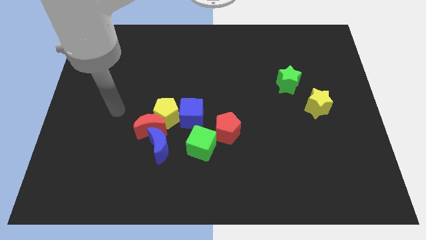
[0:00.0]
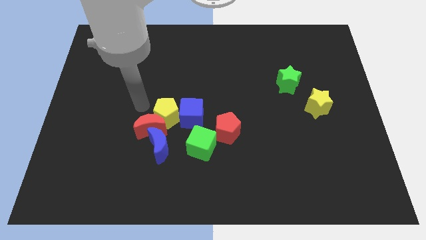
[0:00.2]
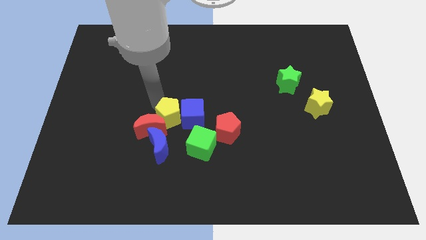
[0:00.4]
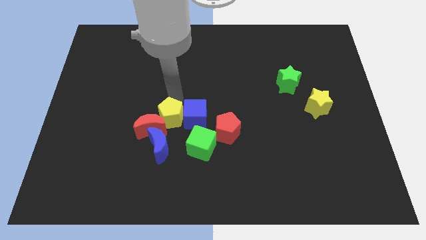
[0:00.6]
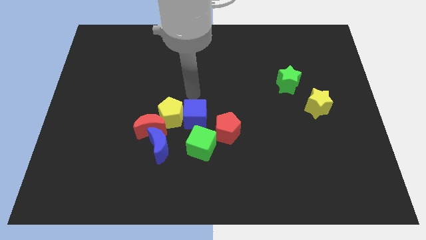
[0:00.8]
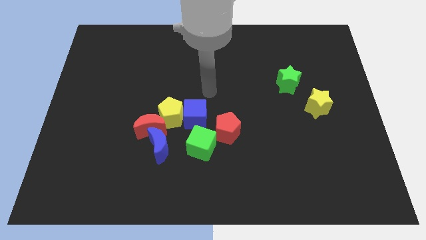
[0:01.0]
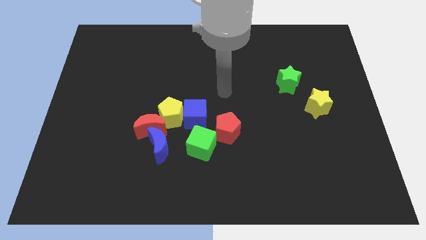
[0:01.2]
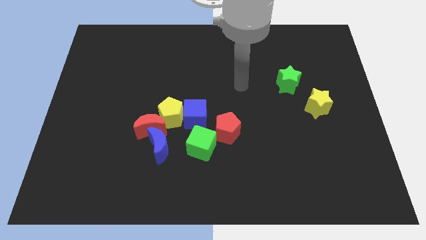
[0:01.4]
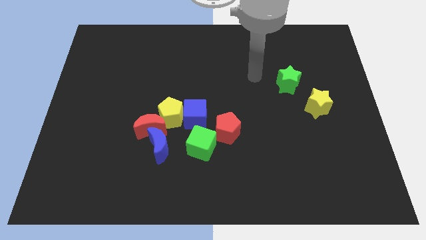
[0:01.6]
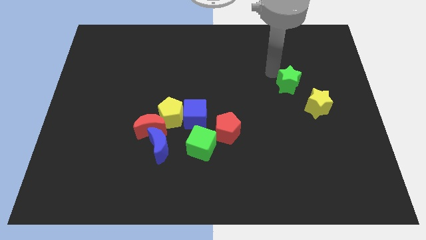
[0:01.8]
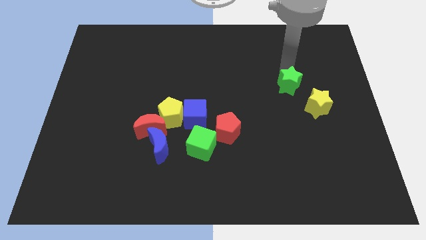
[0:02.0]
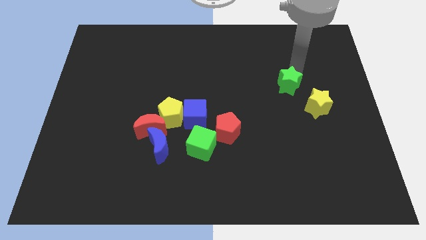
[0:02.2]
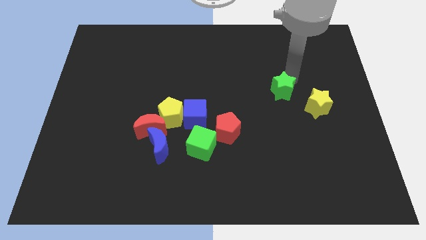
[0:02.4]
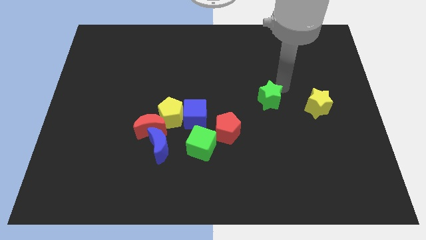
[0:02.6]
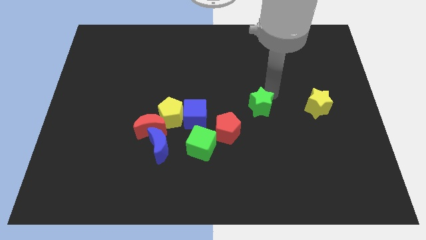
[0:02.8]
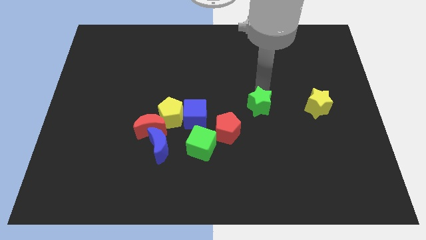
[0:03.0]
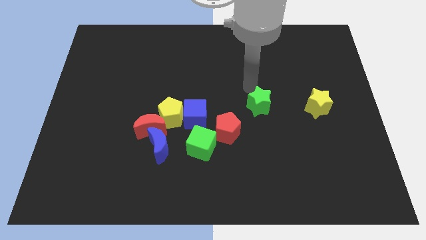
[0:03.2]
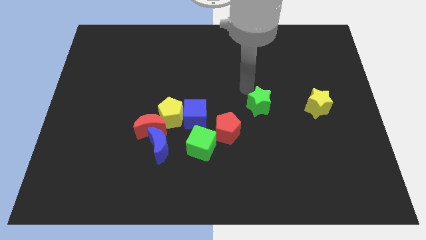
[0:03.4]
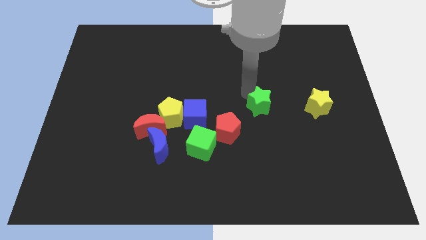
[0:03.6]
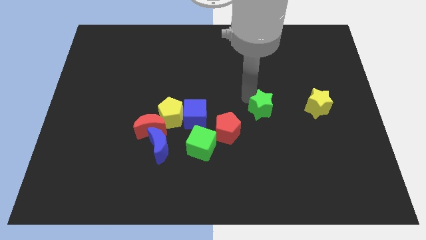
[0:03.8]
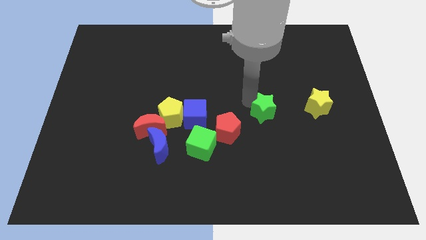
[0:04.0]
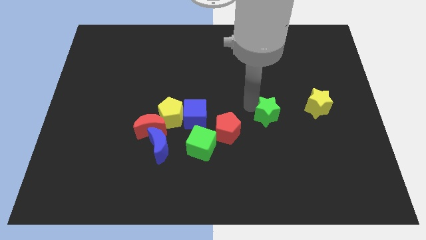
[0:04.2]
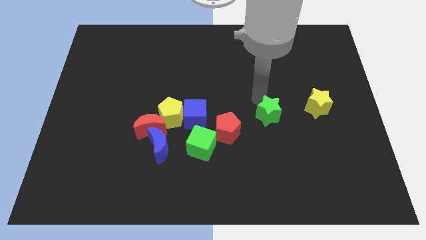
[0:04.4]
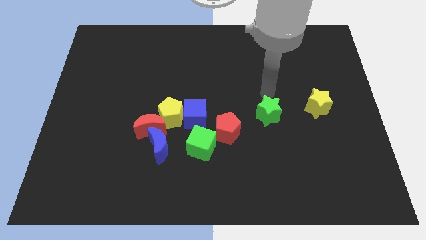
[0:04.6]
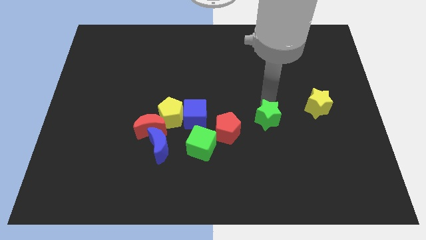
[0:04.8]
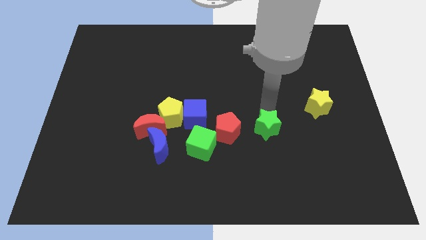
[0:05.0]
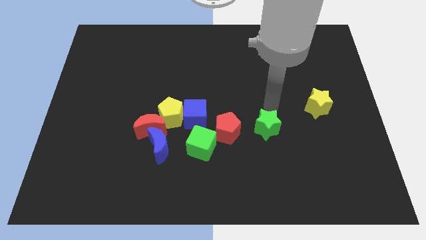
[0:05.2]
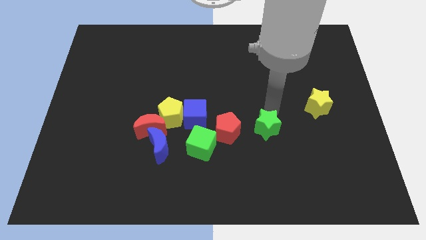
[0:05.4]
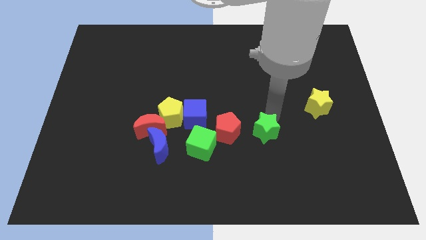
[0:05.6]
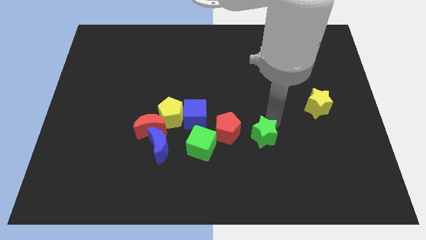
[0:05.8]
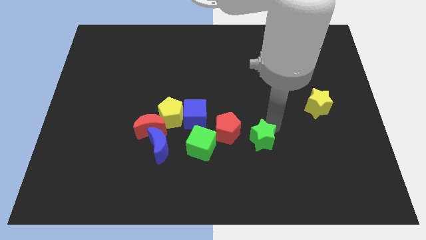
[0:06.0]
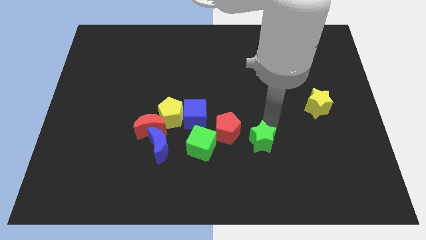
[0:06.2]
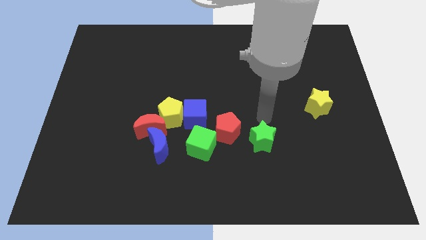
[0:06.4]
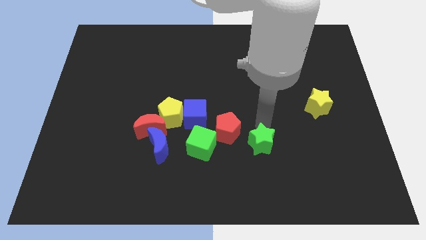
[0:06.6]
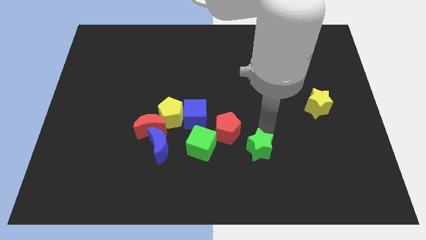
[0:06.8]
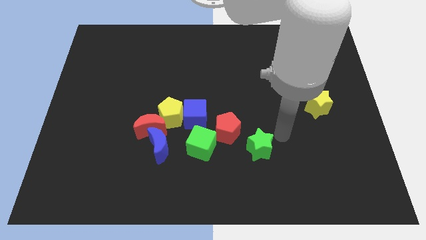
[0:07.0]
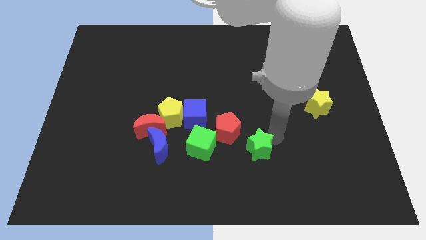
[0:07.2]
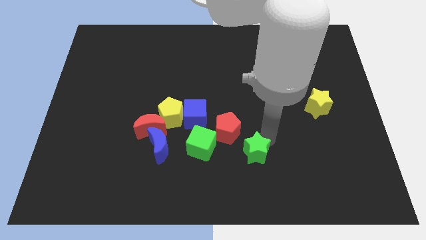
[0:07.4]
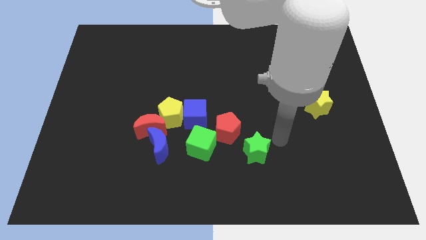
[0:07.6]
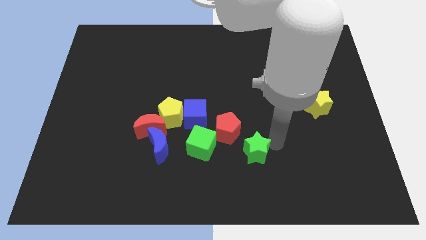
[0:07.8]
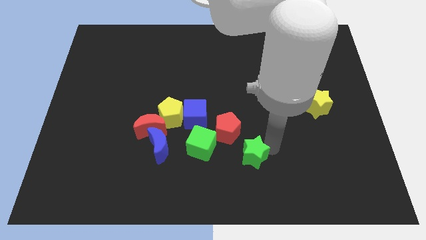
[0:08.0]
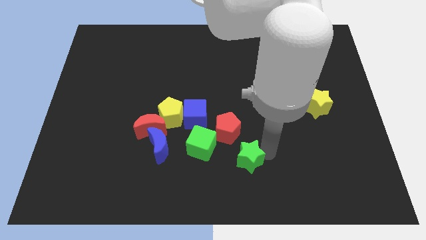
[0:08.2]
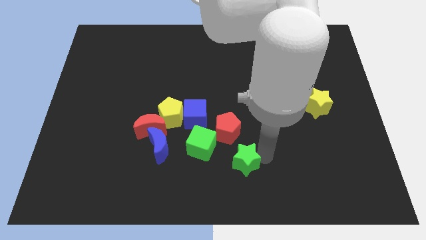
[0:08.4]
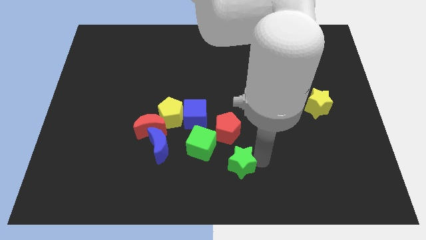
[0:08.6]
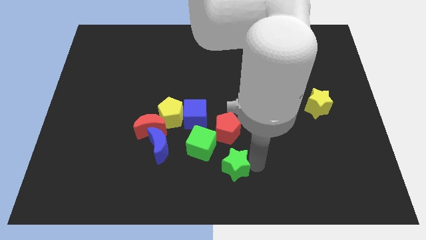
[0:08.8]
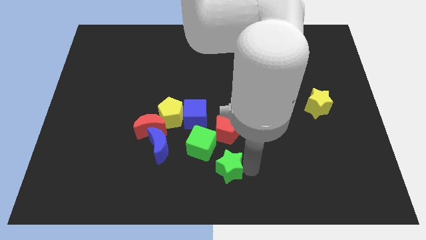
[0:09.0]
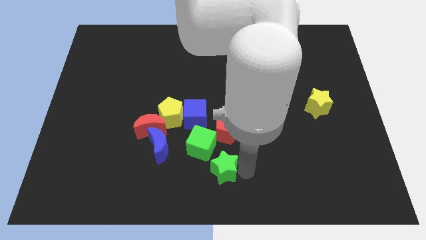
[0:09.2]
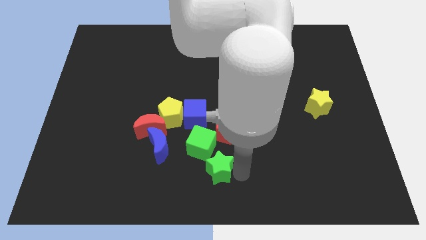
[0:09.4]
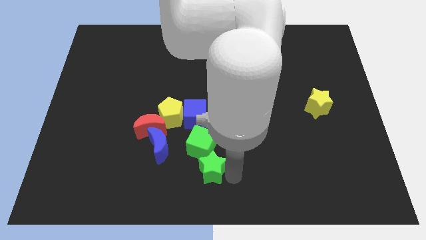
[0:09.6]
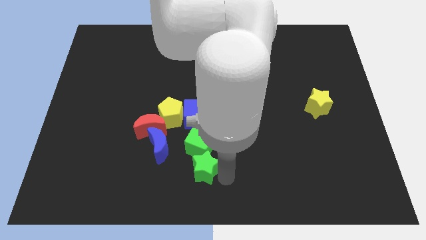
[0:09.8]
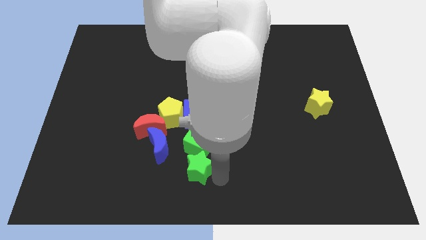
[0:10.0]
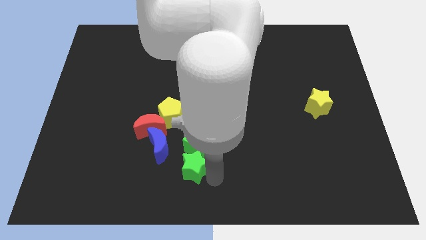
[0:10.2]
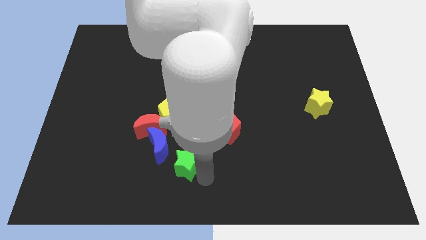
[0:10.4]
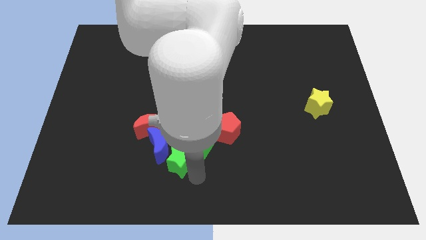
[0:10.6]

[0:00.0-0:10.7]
move the green star next to the blue moon

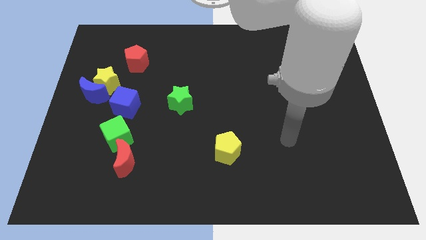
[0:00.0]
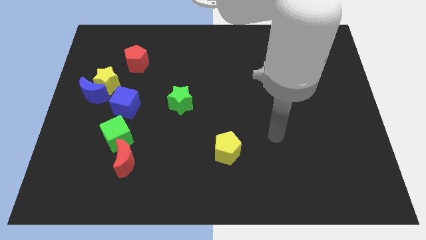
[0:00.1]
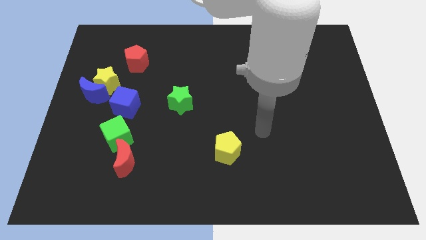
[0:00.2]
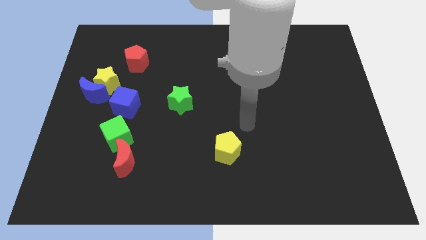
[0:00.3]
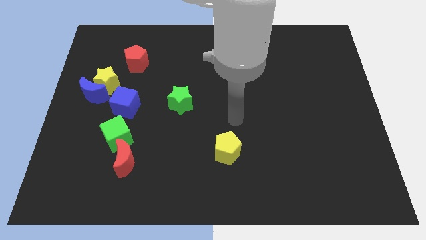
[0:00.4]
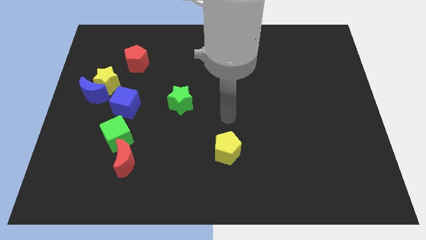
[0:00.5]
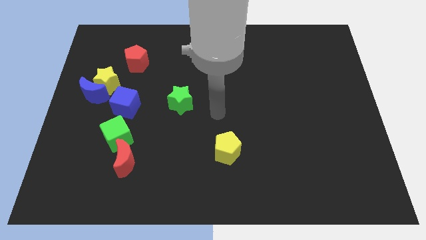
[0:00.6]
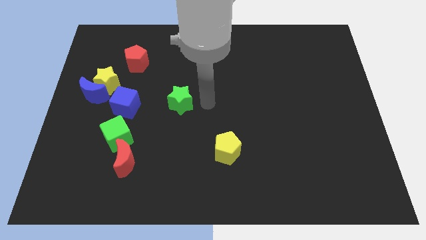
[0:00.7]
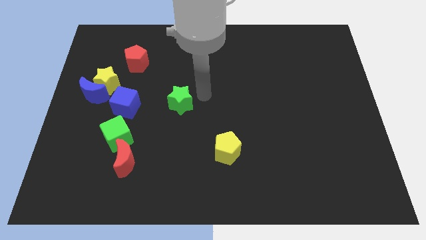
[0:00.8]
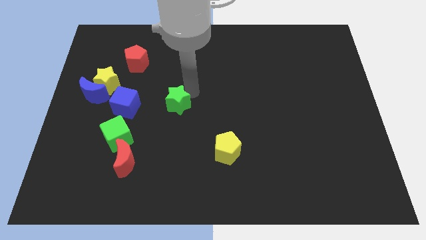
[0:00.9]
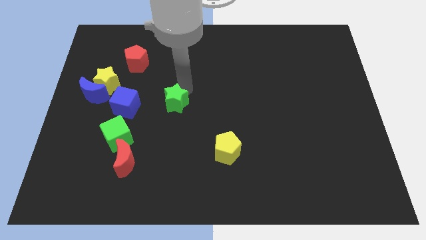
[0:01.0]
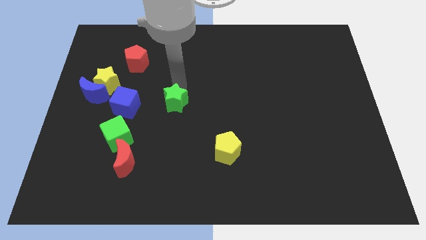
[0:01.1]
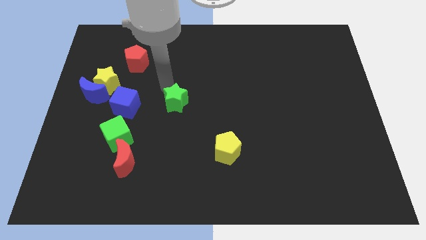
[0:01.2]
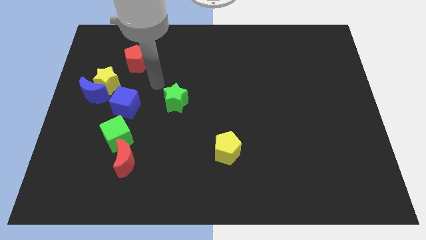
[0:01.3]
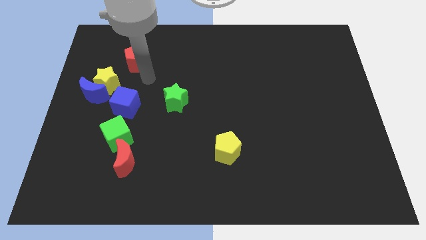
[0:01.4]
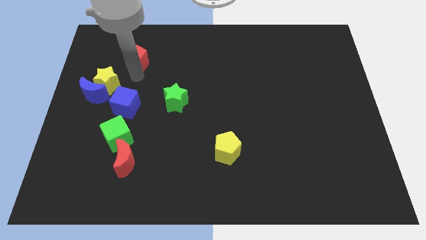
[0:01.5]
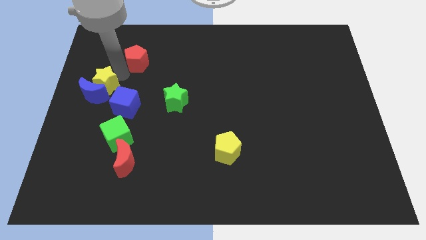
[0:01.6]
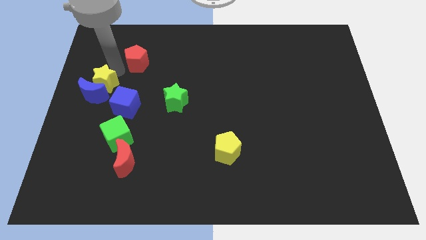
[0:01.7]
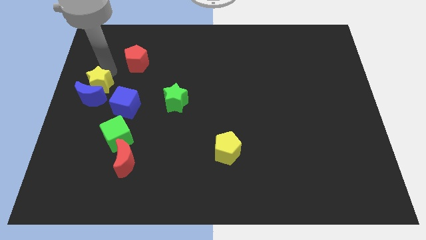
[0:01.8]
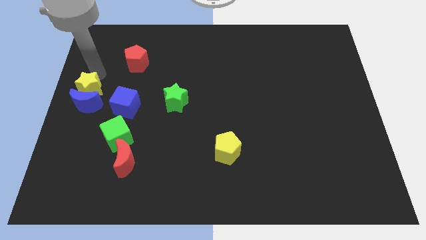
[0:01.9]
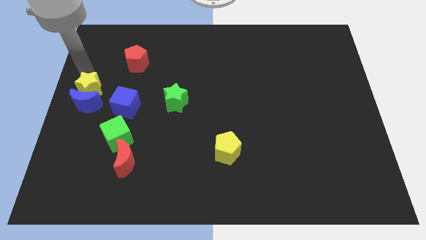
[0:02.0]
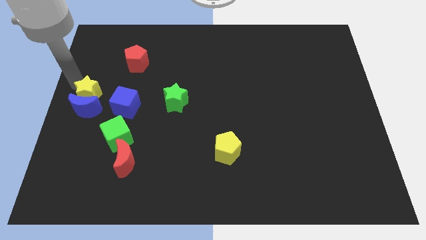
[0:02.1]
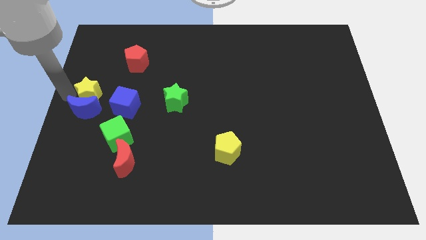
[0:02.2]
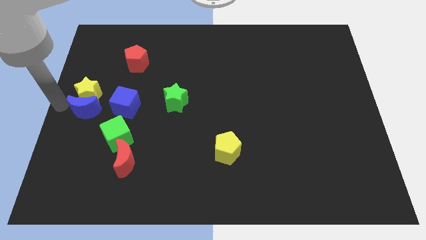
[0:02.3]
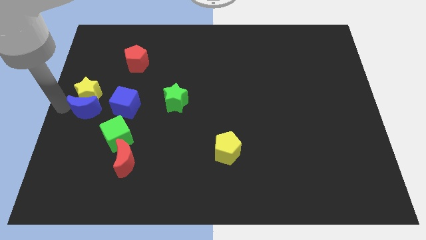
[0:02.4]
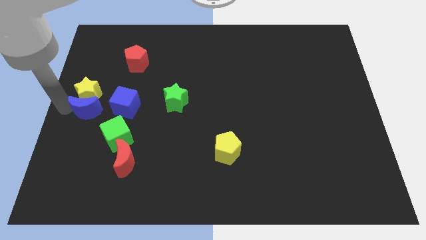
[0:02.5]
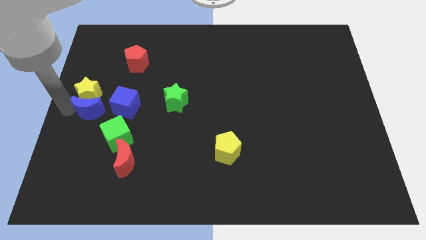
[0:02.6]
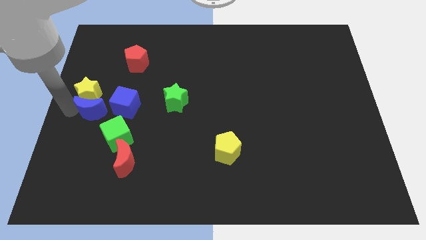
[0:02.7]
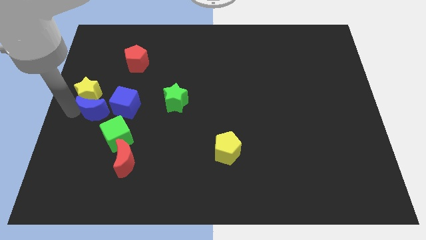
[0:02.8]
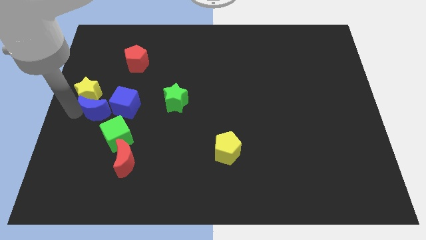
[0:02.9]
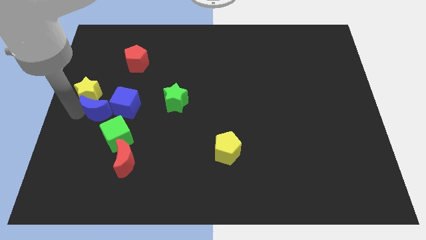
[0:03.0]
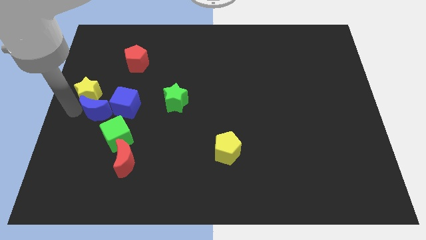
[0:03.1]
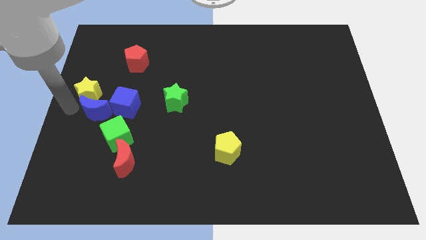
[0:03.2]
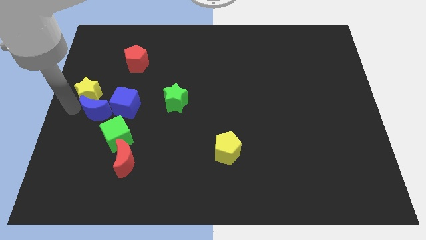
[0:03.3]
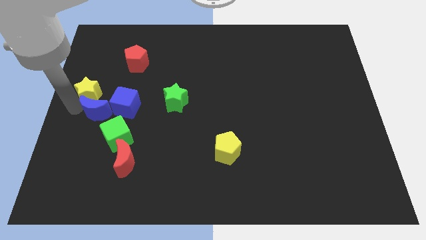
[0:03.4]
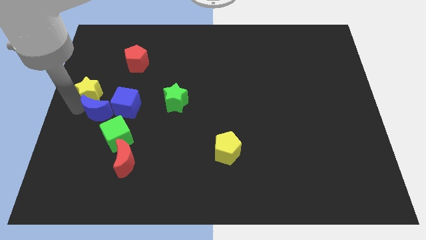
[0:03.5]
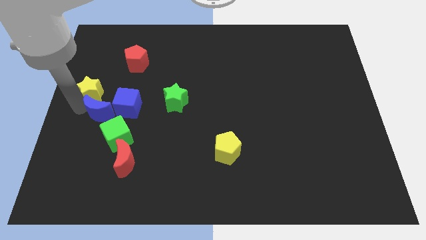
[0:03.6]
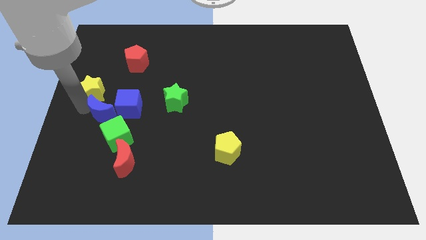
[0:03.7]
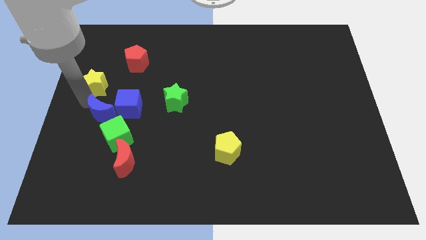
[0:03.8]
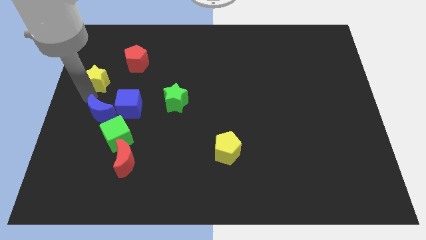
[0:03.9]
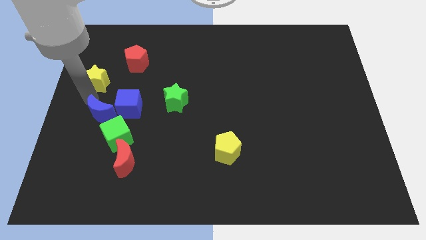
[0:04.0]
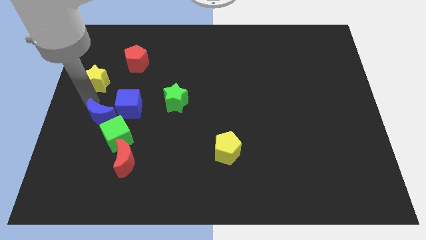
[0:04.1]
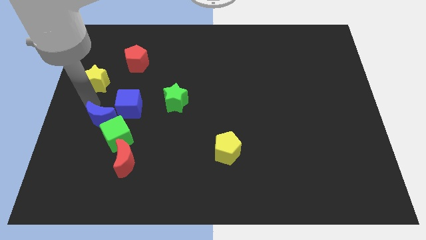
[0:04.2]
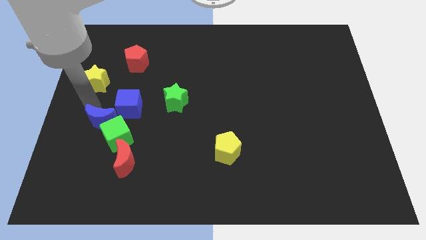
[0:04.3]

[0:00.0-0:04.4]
push the blue moon towards the green cube
